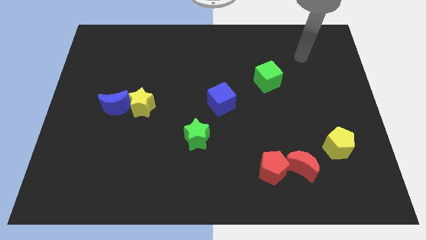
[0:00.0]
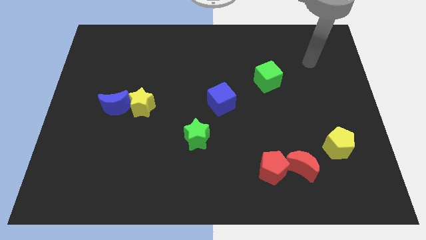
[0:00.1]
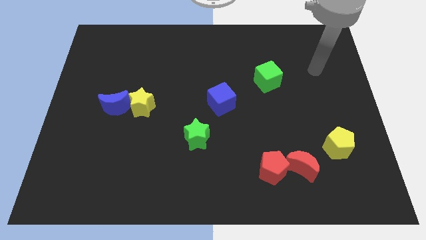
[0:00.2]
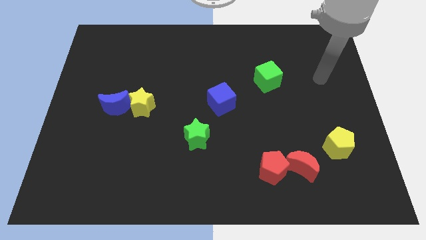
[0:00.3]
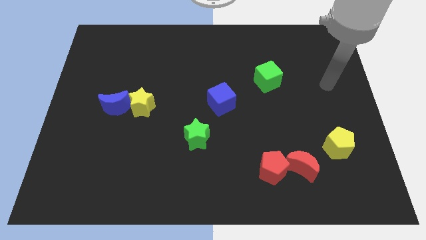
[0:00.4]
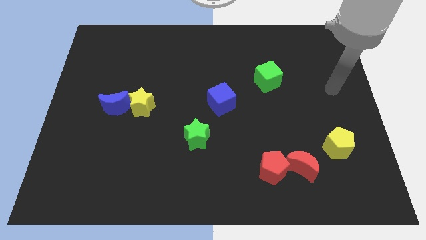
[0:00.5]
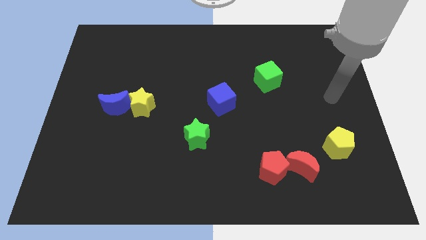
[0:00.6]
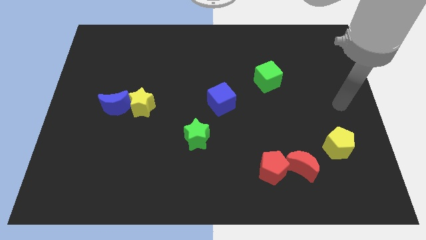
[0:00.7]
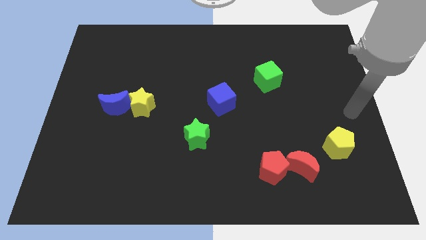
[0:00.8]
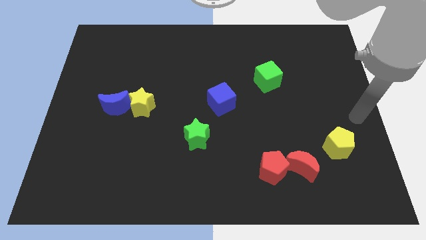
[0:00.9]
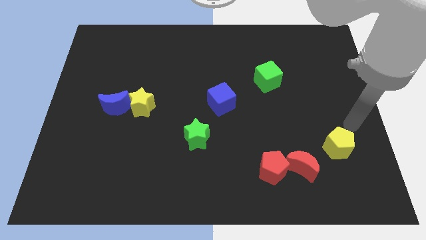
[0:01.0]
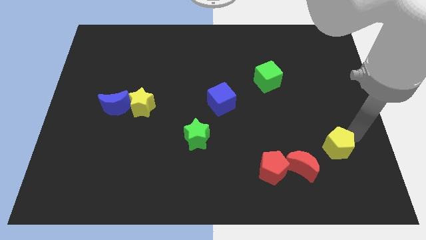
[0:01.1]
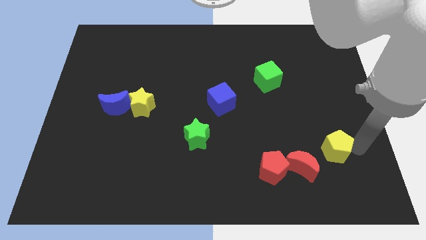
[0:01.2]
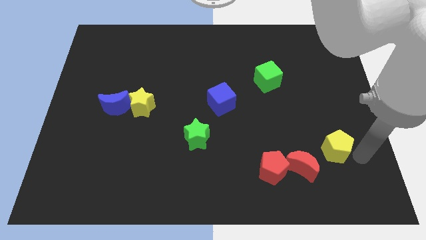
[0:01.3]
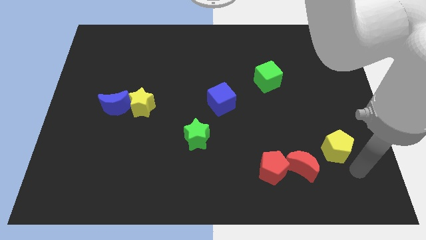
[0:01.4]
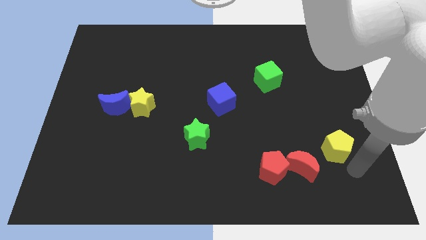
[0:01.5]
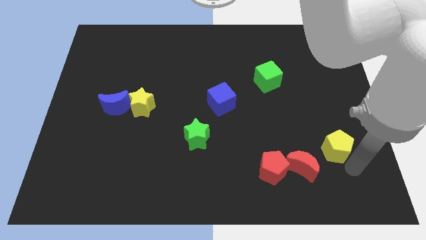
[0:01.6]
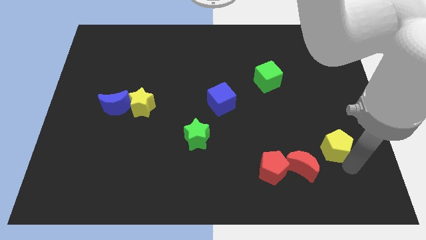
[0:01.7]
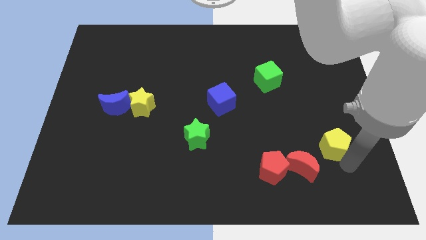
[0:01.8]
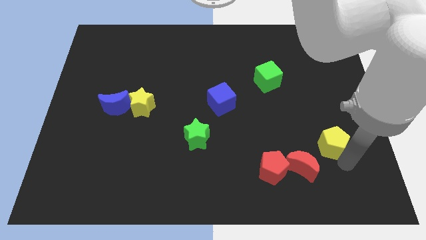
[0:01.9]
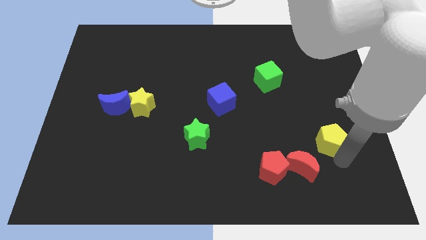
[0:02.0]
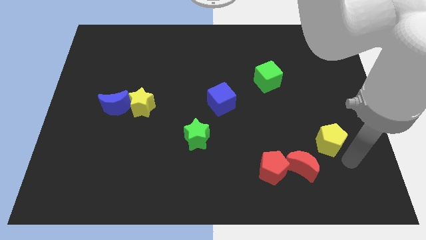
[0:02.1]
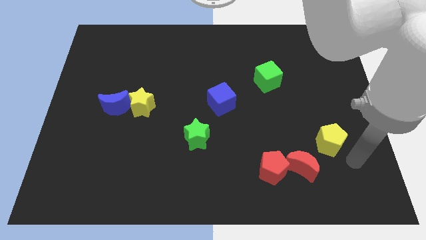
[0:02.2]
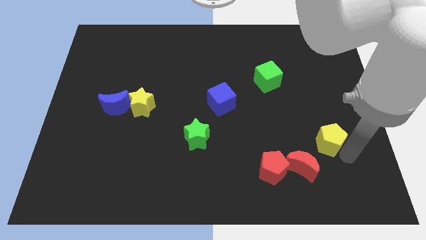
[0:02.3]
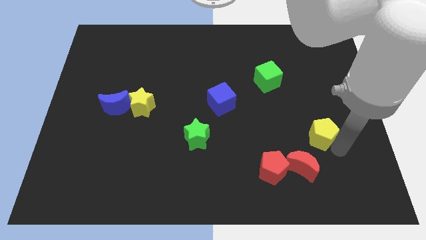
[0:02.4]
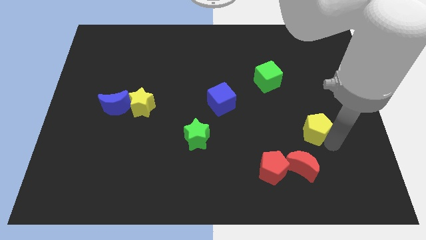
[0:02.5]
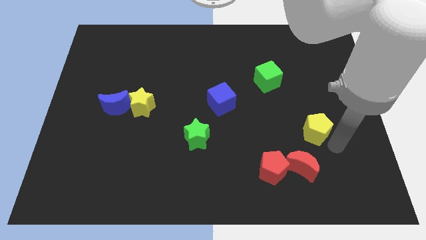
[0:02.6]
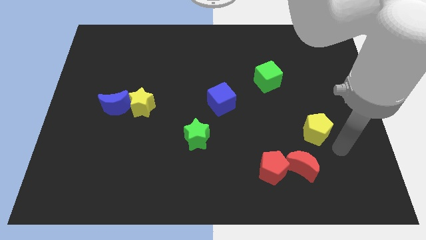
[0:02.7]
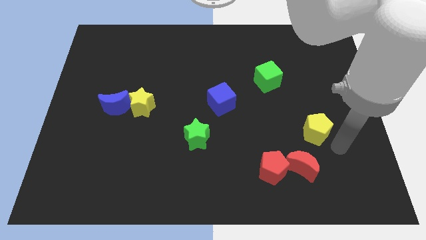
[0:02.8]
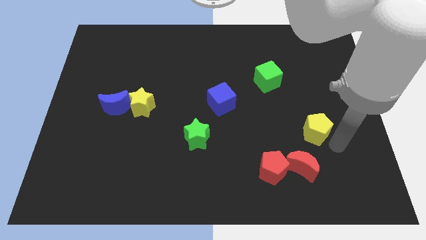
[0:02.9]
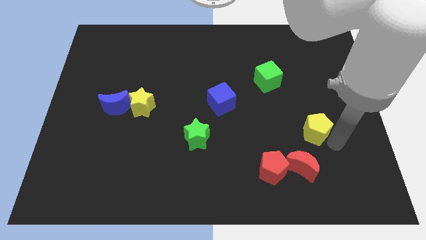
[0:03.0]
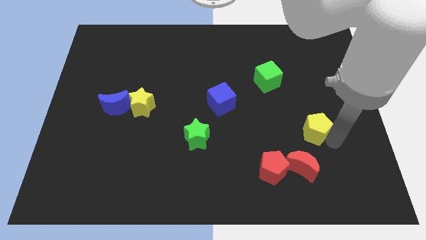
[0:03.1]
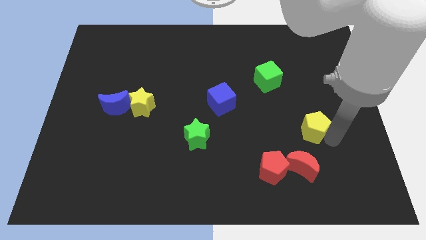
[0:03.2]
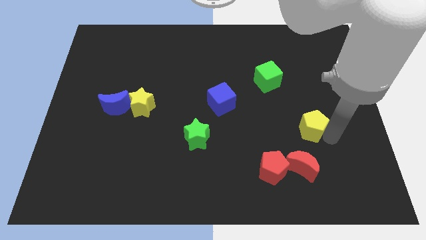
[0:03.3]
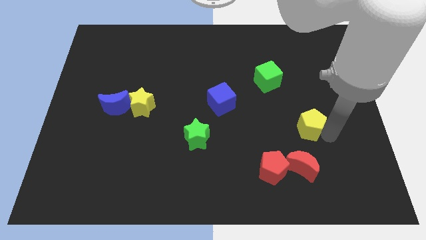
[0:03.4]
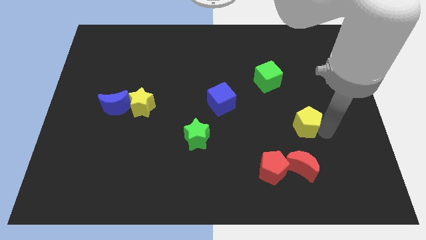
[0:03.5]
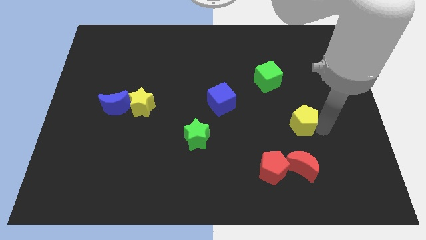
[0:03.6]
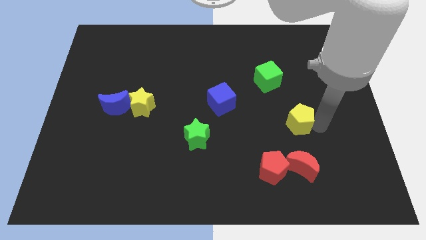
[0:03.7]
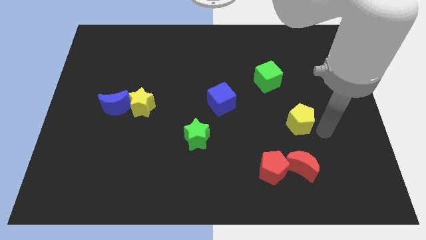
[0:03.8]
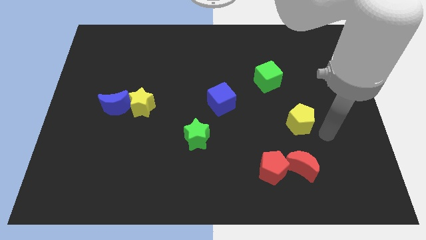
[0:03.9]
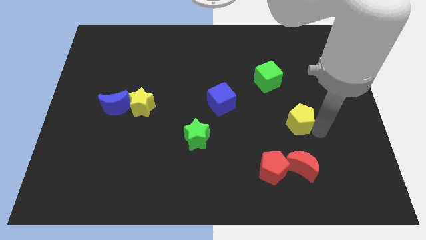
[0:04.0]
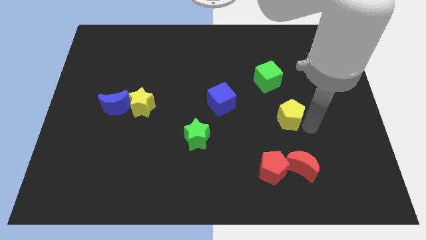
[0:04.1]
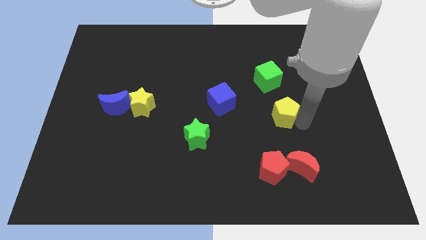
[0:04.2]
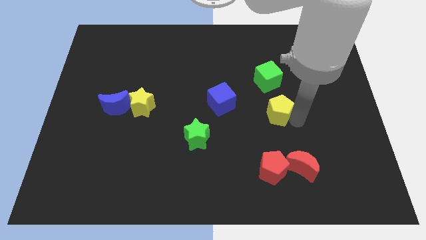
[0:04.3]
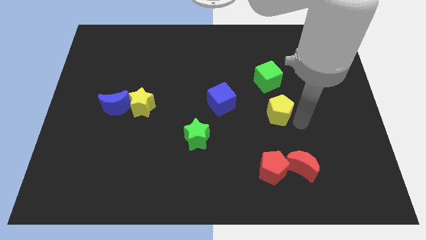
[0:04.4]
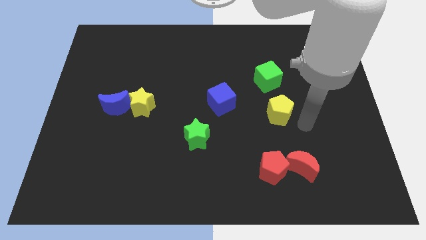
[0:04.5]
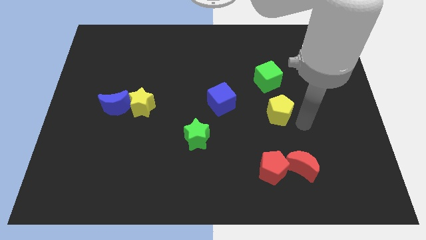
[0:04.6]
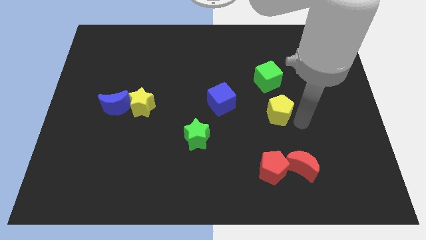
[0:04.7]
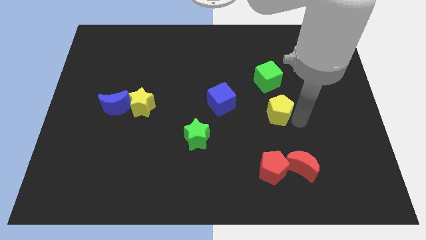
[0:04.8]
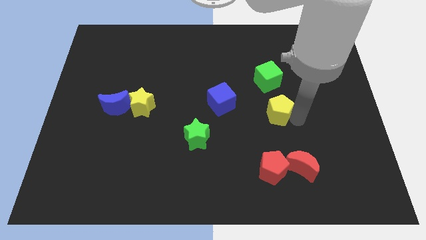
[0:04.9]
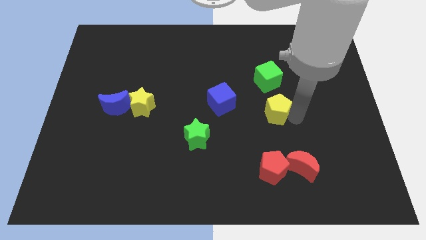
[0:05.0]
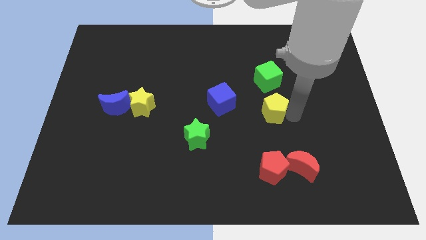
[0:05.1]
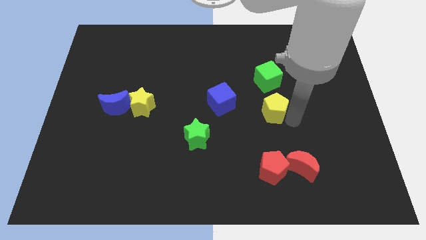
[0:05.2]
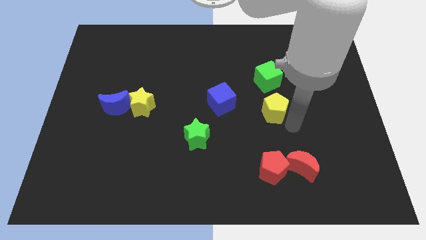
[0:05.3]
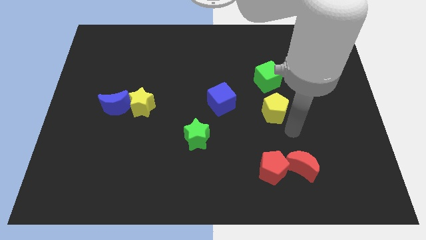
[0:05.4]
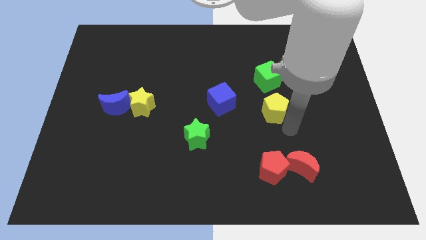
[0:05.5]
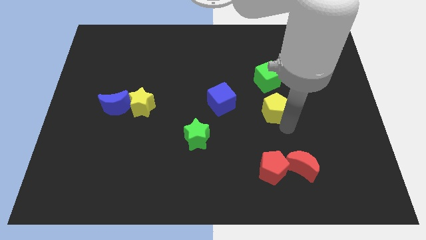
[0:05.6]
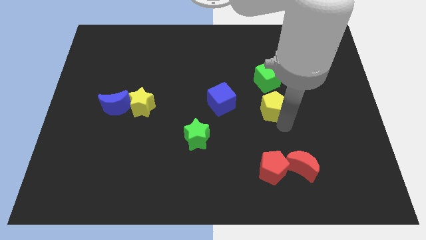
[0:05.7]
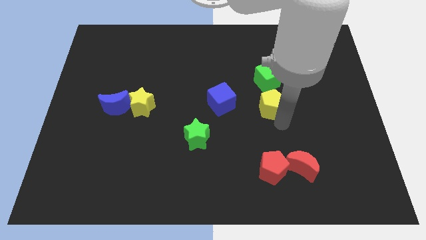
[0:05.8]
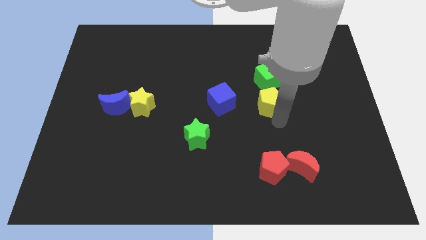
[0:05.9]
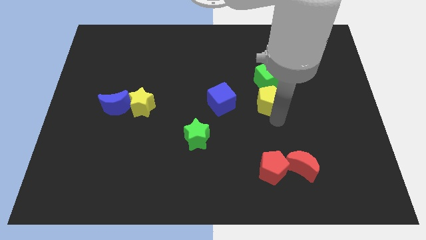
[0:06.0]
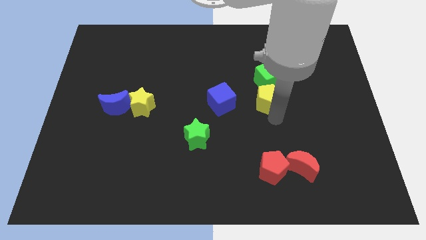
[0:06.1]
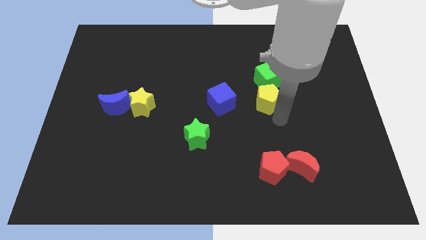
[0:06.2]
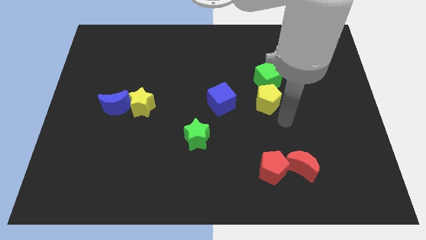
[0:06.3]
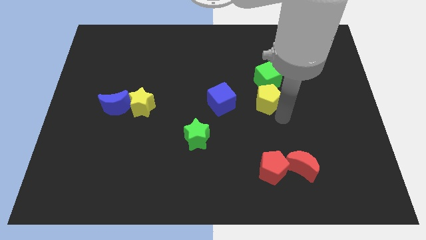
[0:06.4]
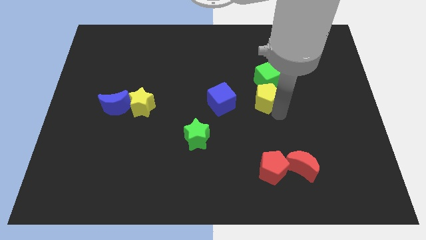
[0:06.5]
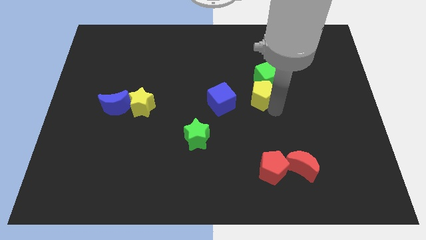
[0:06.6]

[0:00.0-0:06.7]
slide the yellow pentagon diagonally up and left

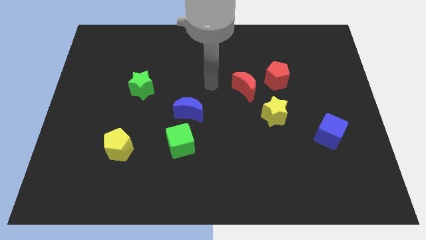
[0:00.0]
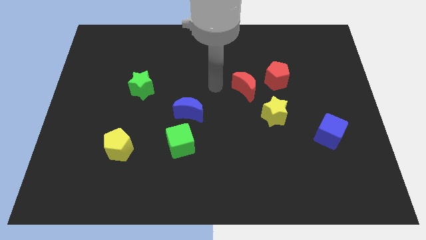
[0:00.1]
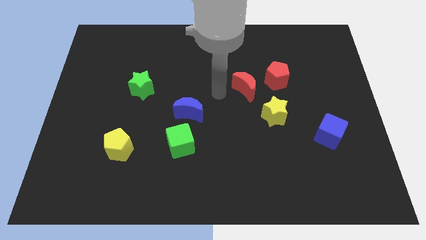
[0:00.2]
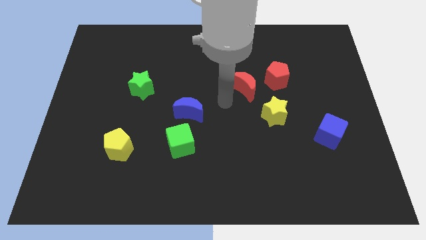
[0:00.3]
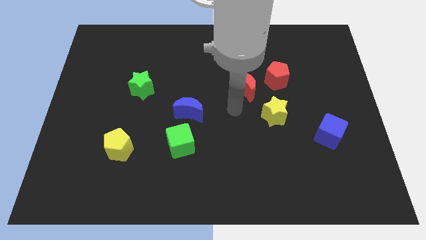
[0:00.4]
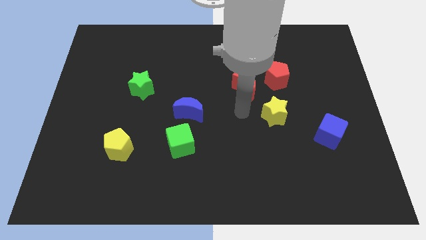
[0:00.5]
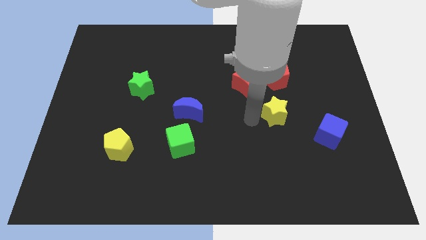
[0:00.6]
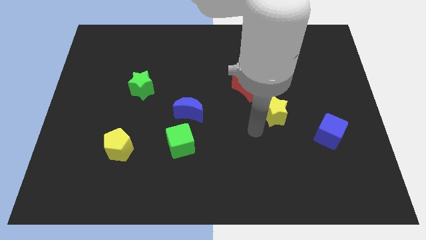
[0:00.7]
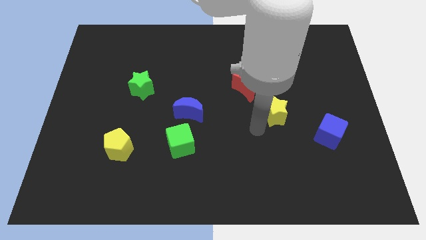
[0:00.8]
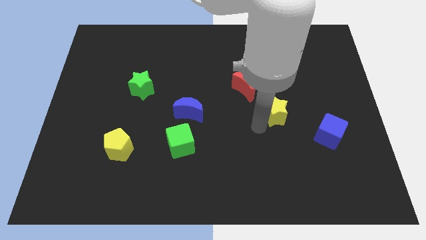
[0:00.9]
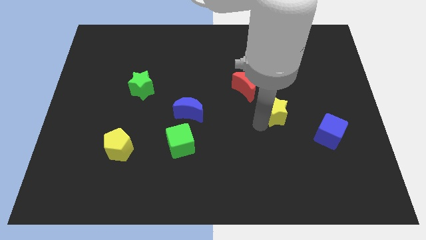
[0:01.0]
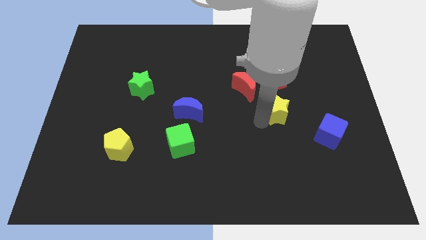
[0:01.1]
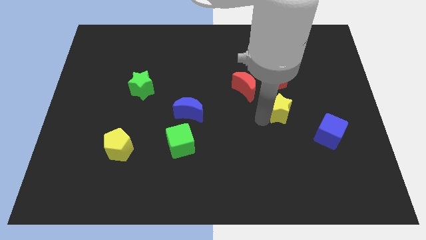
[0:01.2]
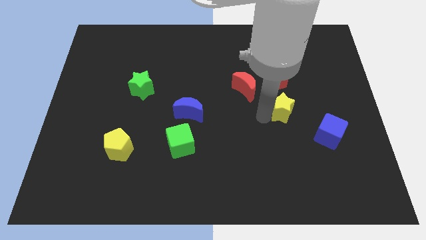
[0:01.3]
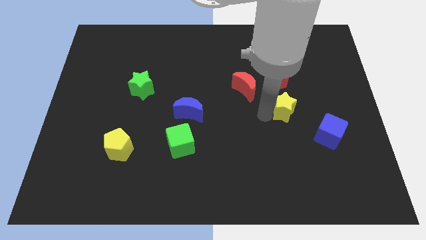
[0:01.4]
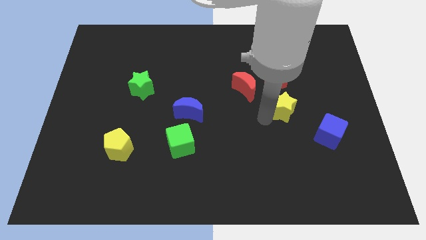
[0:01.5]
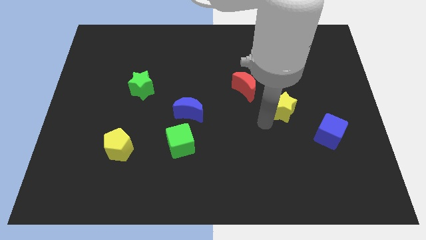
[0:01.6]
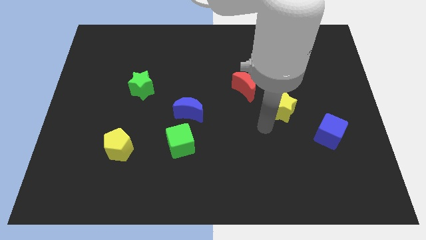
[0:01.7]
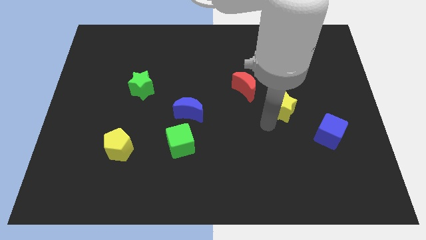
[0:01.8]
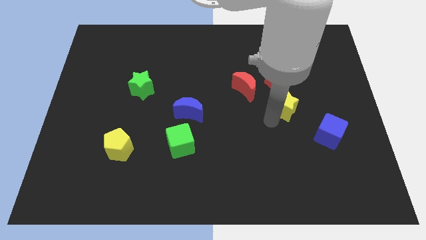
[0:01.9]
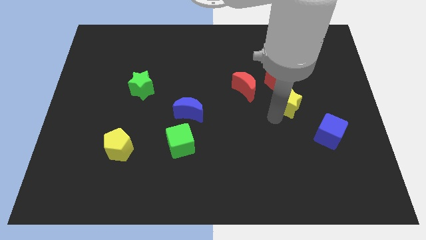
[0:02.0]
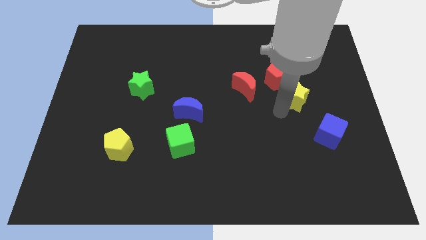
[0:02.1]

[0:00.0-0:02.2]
slide the yellow star a little bit diagonally up and to the right
